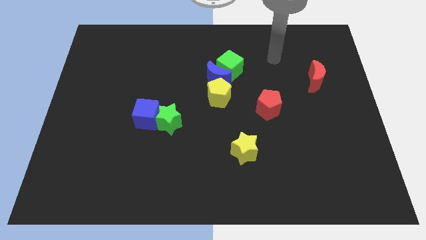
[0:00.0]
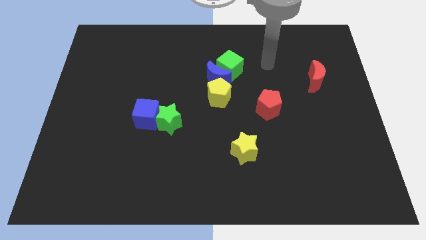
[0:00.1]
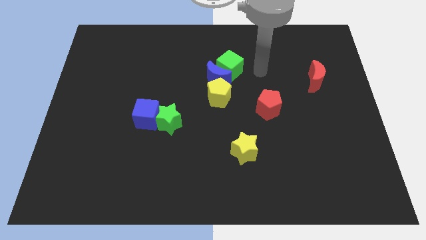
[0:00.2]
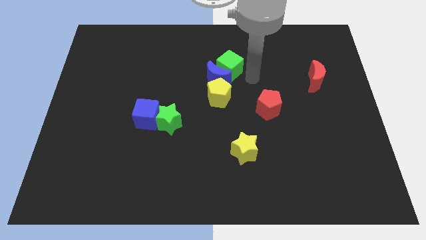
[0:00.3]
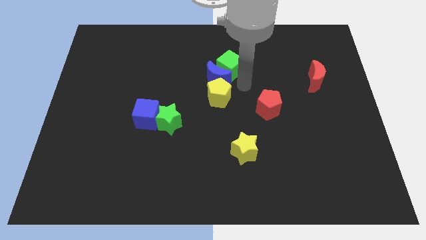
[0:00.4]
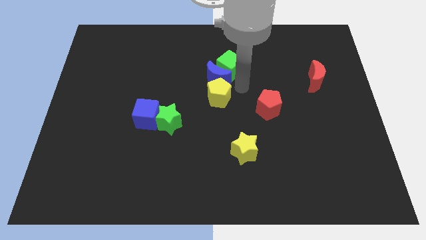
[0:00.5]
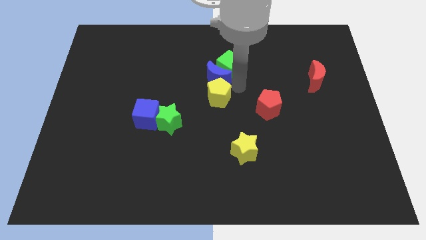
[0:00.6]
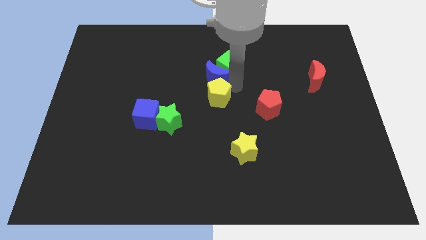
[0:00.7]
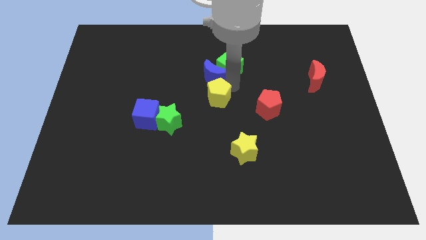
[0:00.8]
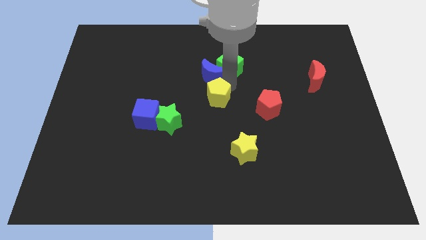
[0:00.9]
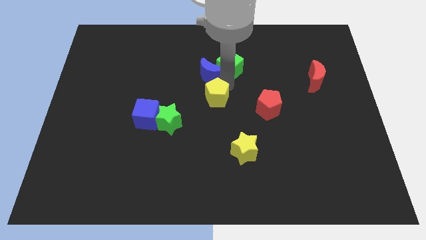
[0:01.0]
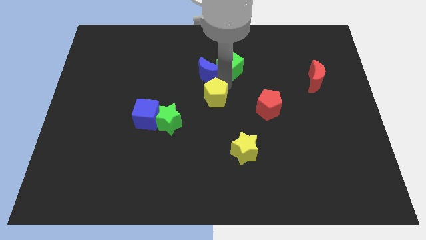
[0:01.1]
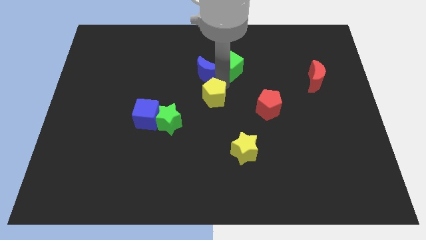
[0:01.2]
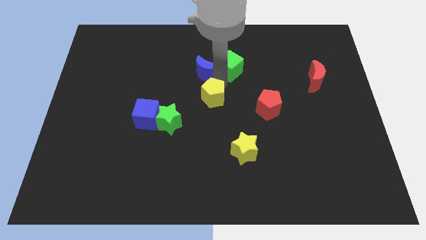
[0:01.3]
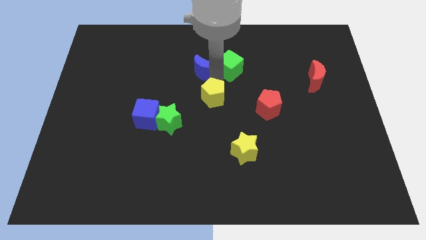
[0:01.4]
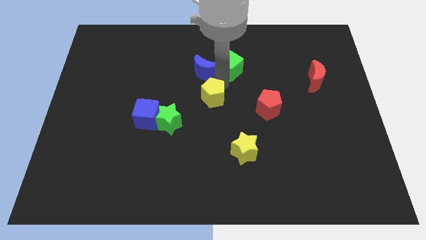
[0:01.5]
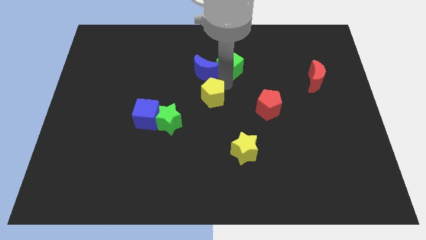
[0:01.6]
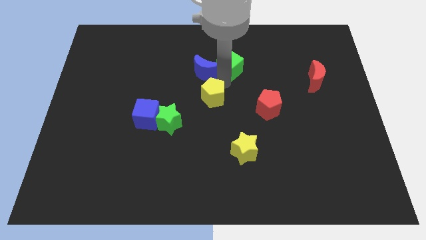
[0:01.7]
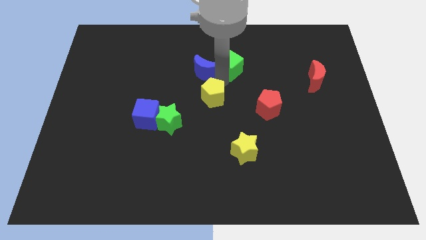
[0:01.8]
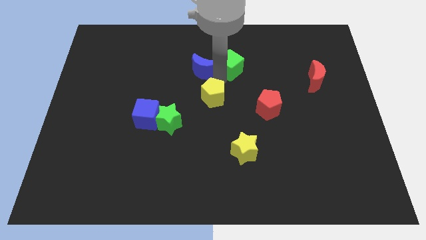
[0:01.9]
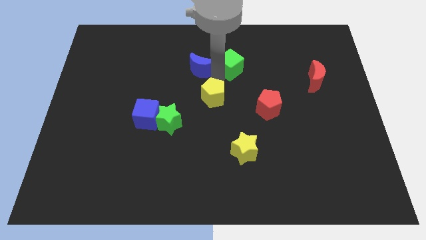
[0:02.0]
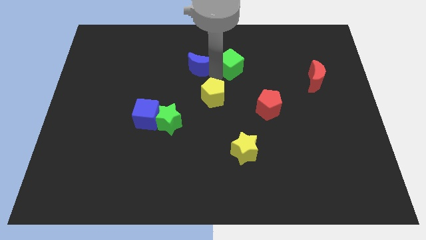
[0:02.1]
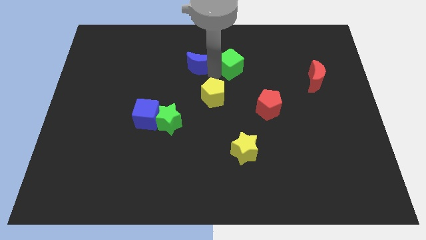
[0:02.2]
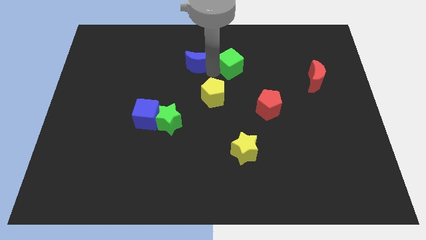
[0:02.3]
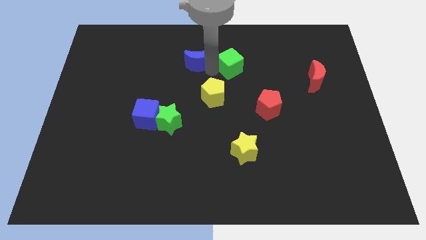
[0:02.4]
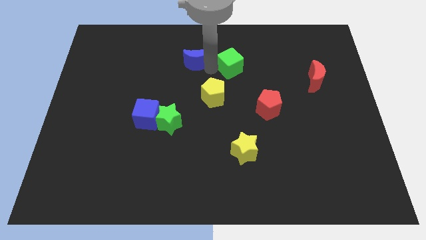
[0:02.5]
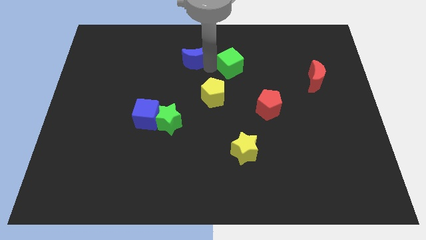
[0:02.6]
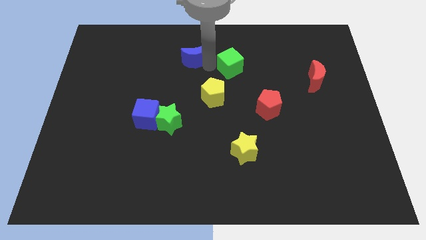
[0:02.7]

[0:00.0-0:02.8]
separate the blue moon from the green cube and yellow pentagon

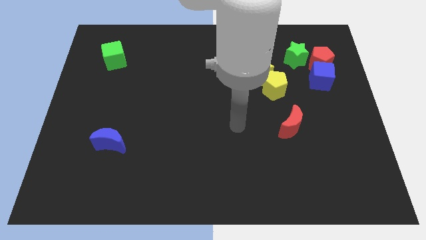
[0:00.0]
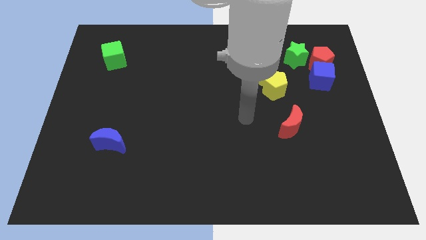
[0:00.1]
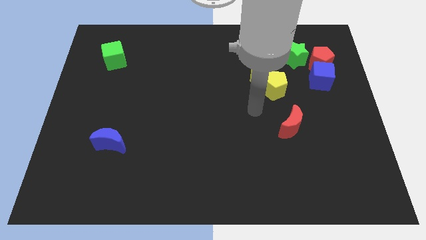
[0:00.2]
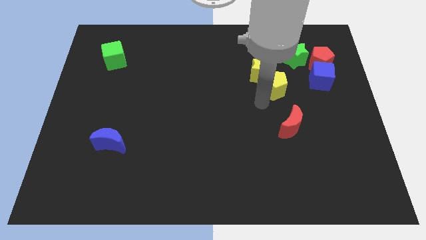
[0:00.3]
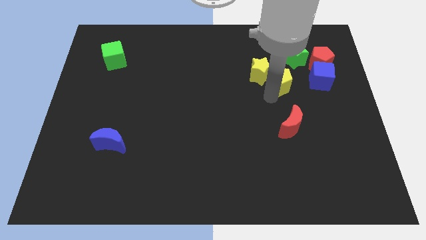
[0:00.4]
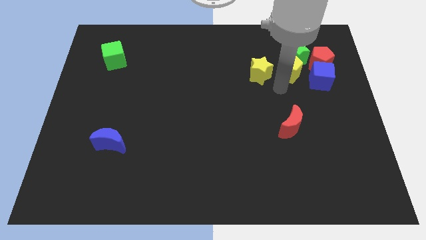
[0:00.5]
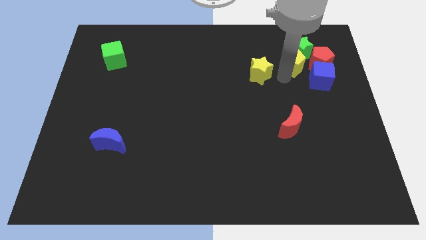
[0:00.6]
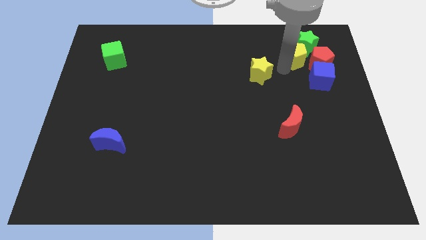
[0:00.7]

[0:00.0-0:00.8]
move the yellow star away from the yellow pentagon

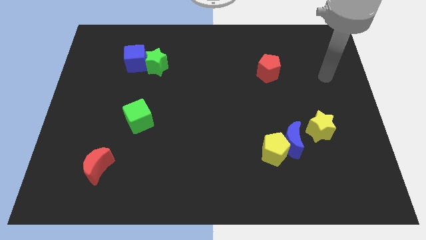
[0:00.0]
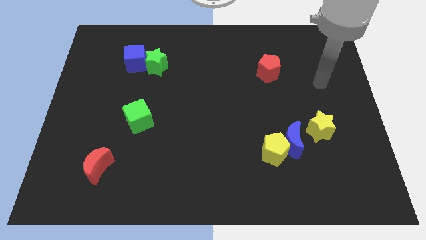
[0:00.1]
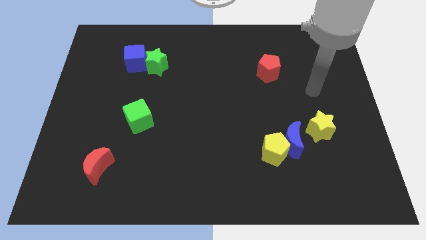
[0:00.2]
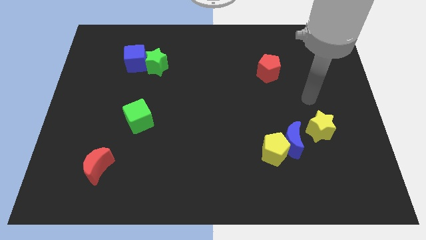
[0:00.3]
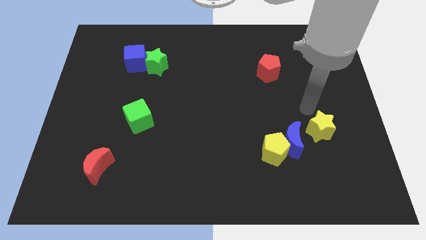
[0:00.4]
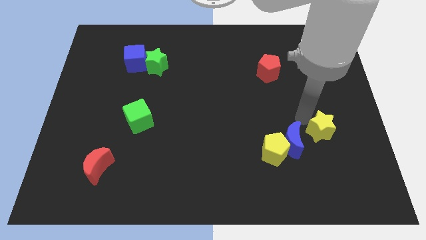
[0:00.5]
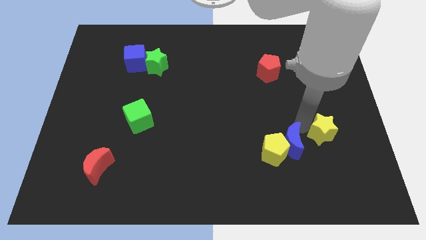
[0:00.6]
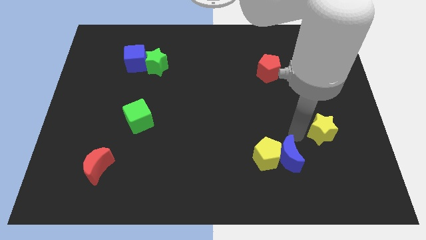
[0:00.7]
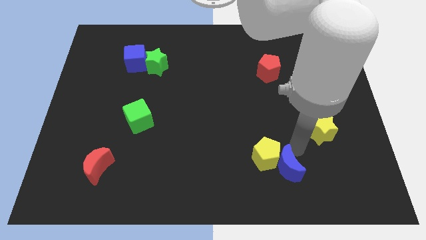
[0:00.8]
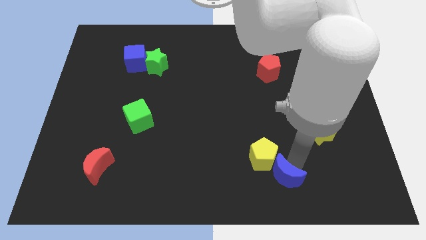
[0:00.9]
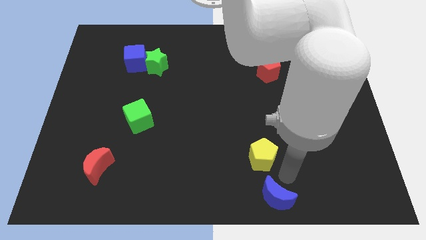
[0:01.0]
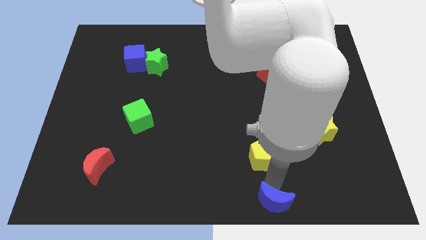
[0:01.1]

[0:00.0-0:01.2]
move the yellow pentagon away from the blue moon

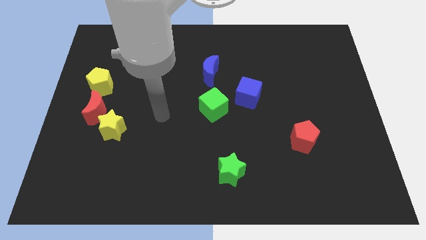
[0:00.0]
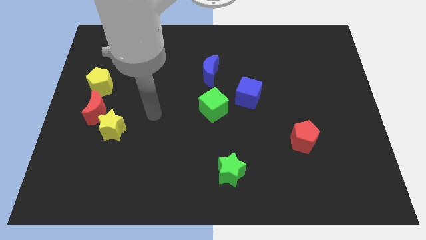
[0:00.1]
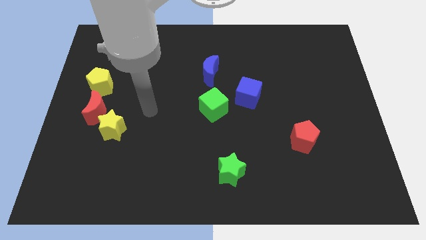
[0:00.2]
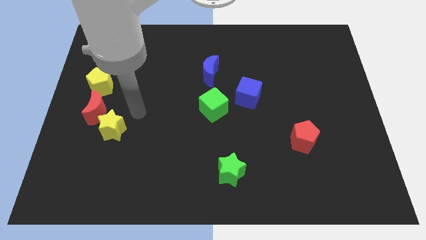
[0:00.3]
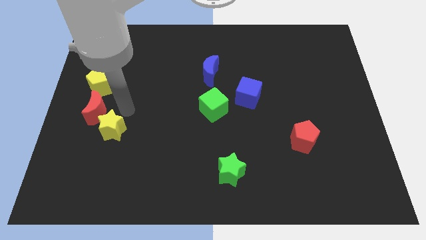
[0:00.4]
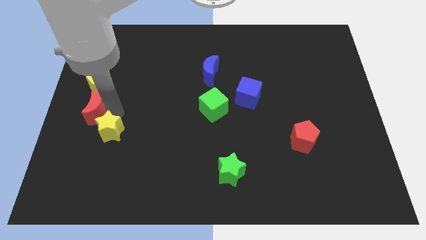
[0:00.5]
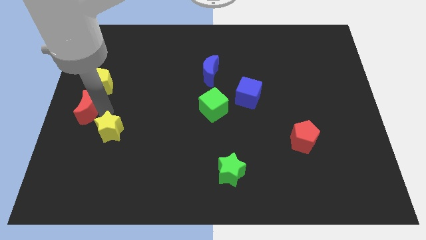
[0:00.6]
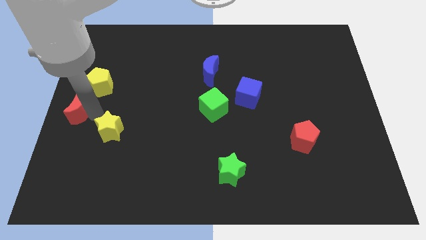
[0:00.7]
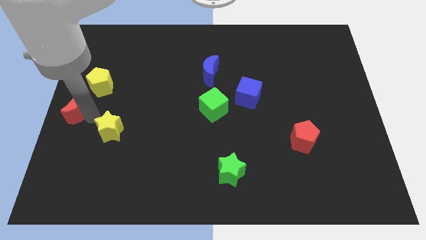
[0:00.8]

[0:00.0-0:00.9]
separate the yellow star from the red moon

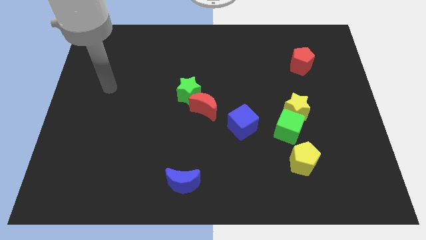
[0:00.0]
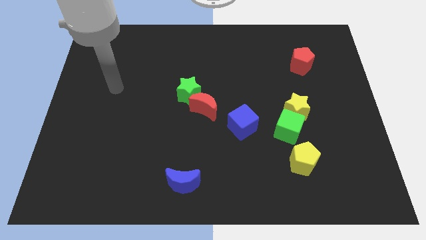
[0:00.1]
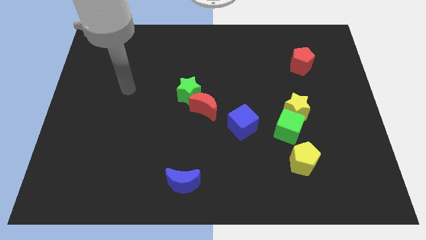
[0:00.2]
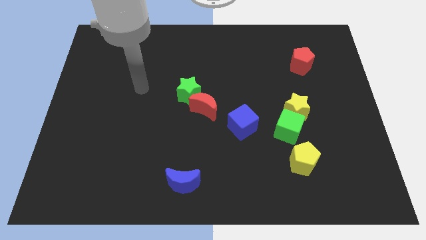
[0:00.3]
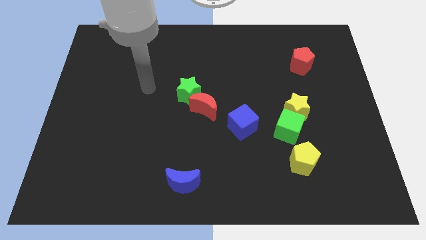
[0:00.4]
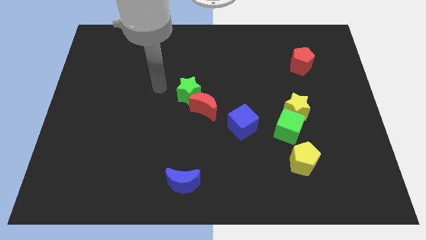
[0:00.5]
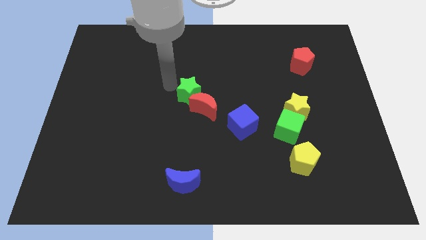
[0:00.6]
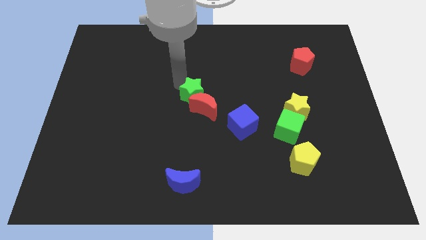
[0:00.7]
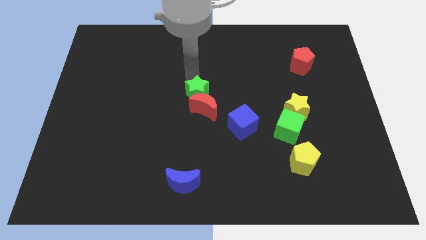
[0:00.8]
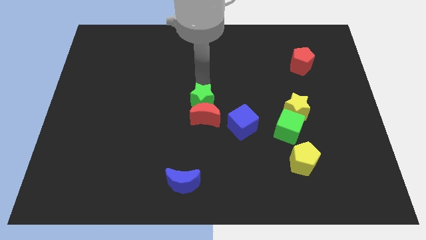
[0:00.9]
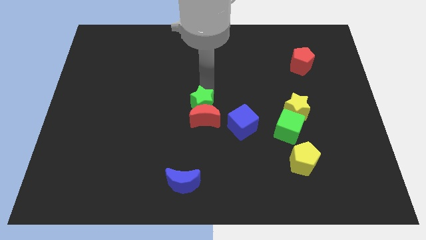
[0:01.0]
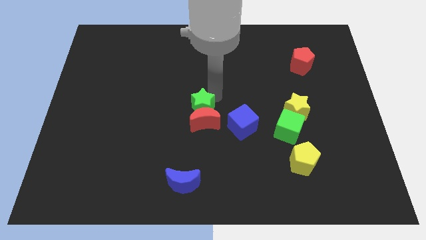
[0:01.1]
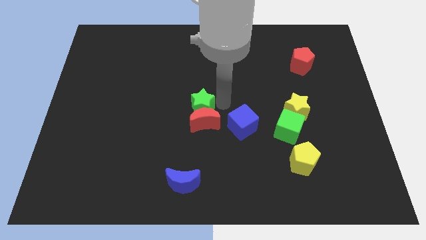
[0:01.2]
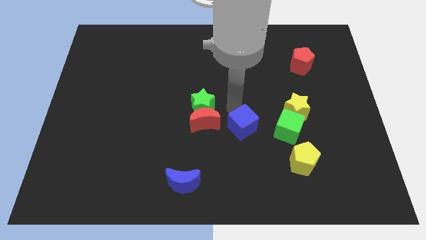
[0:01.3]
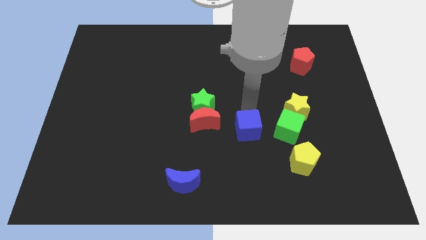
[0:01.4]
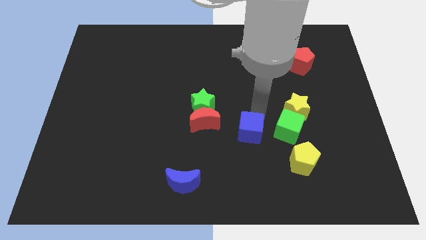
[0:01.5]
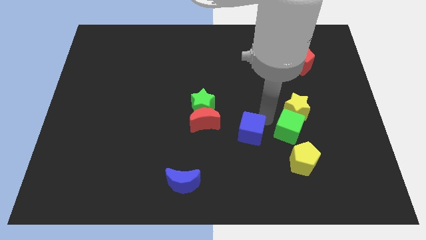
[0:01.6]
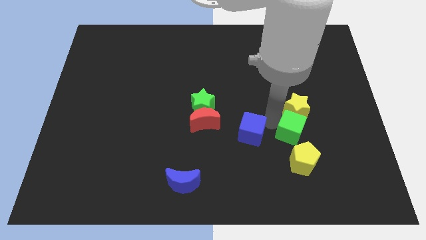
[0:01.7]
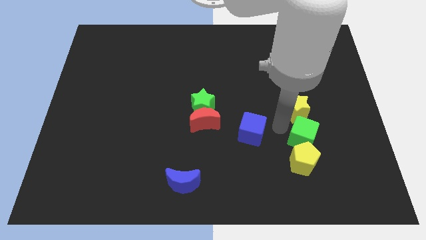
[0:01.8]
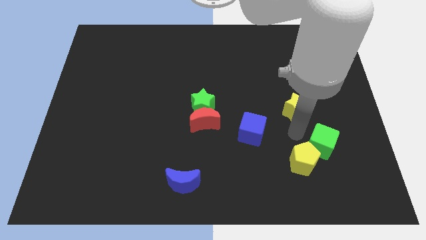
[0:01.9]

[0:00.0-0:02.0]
move the yellow star away from the green cube

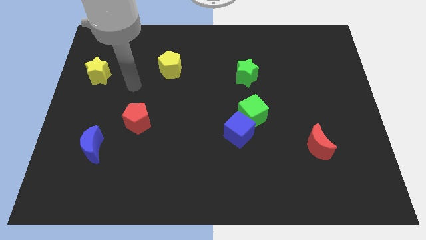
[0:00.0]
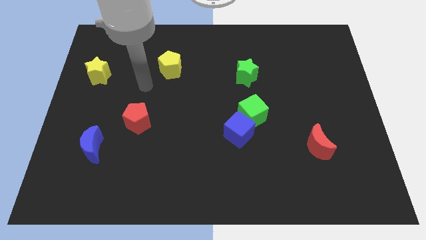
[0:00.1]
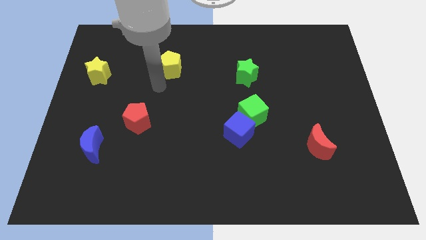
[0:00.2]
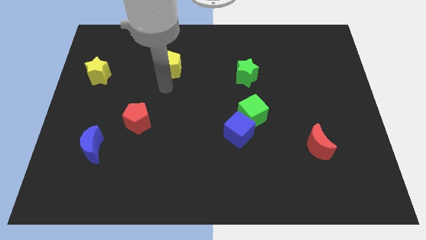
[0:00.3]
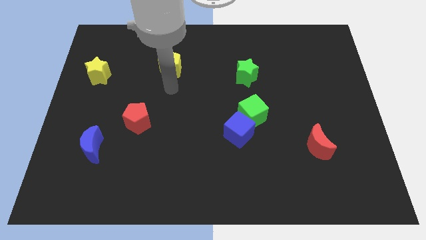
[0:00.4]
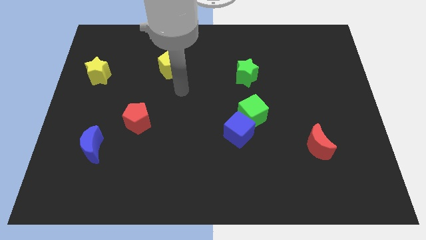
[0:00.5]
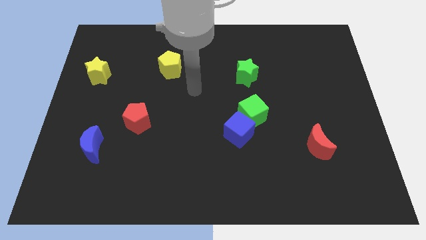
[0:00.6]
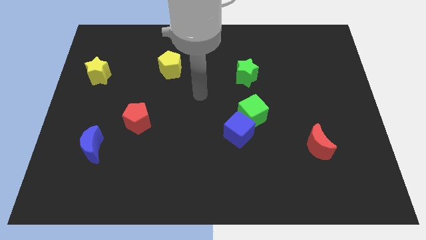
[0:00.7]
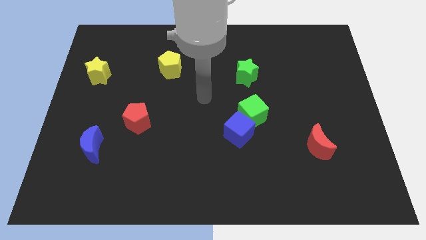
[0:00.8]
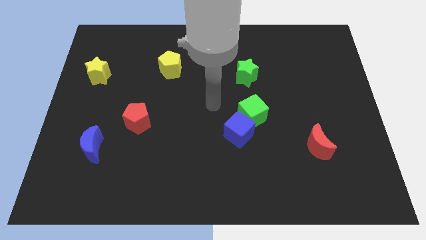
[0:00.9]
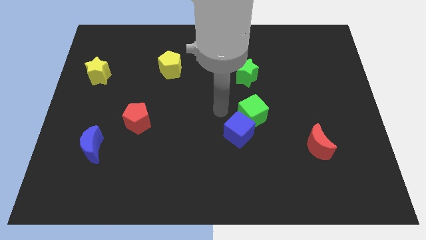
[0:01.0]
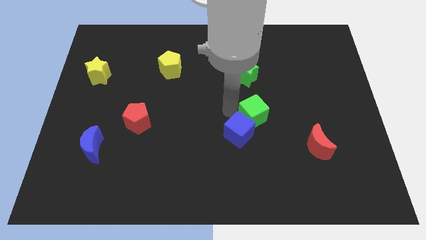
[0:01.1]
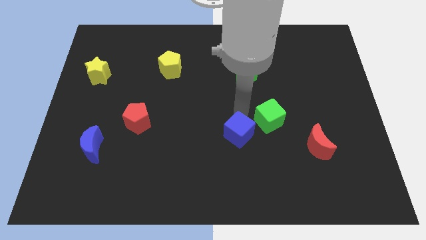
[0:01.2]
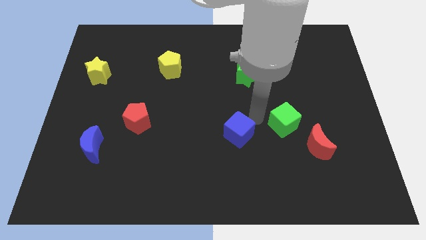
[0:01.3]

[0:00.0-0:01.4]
separate the blue cube from the green cube
